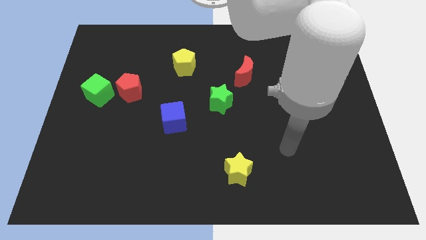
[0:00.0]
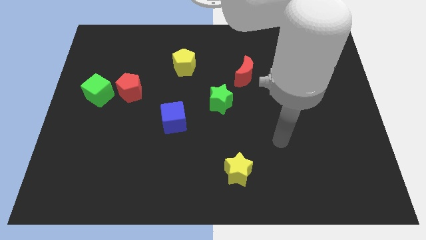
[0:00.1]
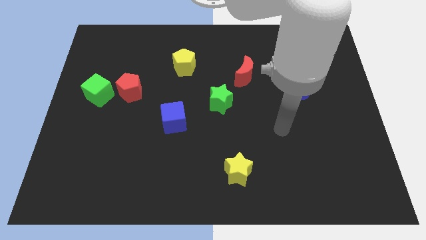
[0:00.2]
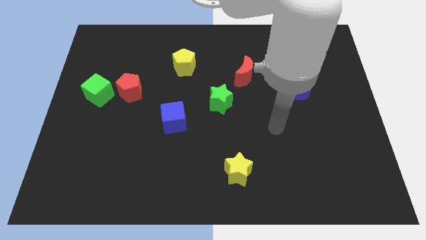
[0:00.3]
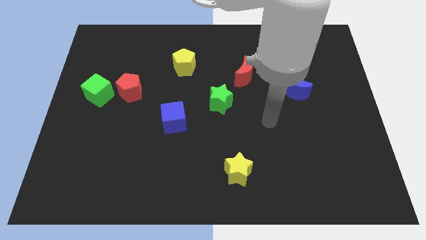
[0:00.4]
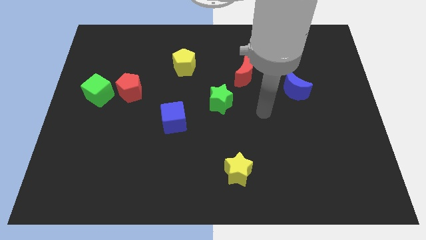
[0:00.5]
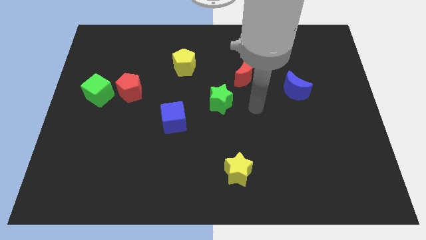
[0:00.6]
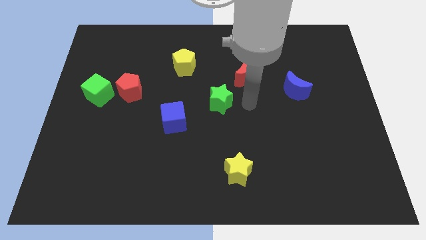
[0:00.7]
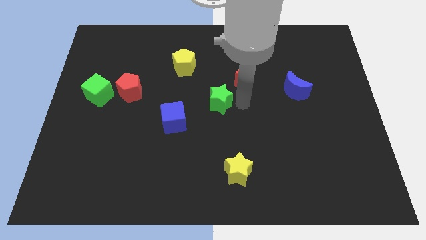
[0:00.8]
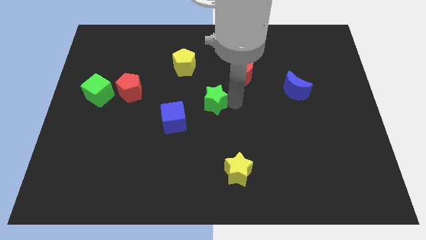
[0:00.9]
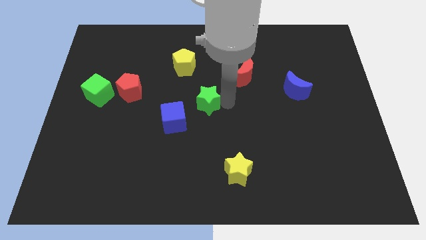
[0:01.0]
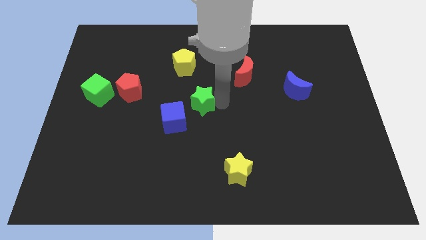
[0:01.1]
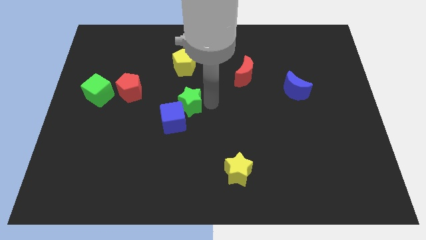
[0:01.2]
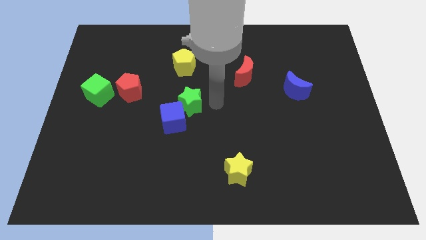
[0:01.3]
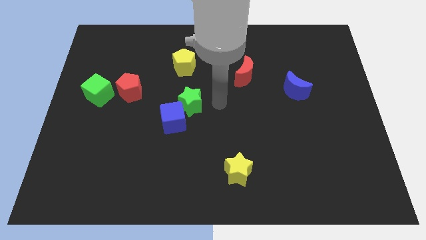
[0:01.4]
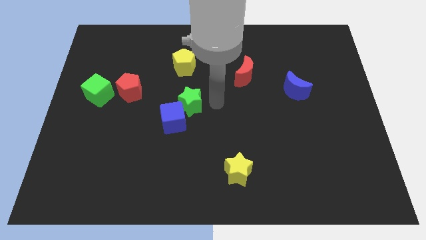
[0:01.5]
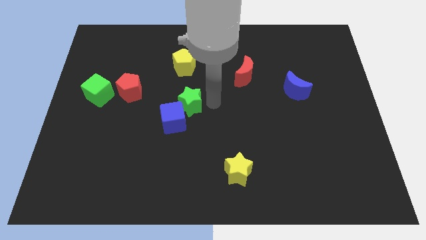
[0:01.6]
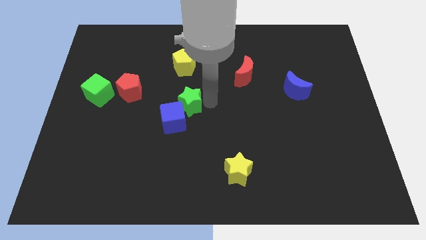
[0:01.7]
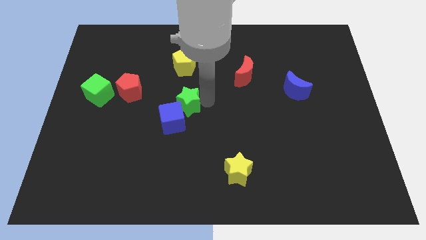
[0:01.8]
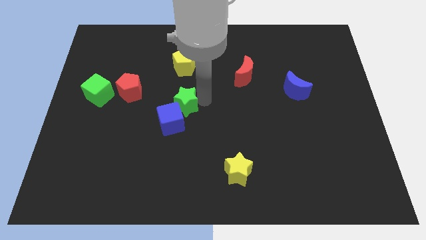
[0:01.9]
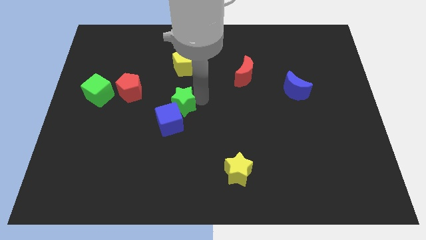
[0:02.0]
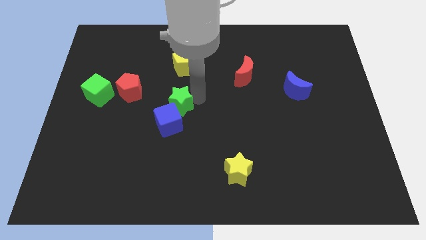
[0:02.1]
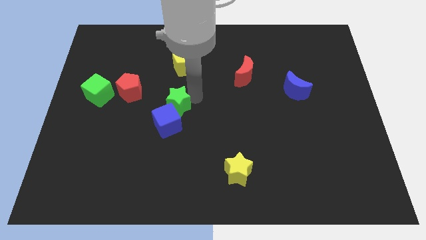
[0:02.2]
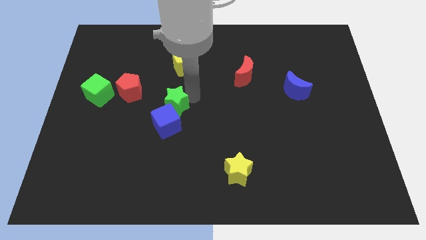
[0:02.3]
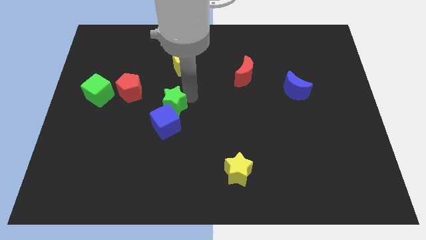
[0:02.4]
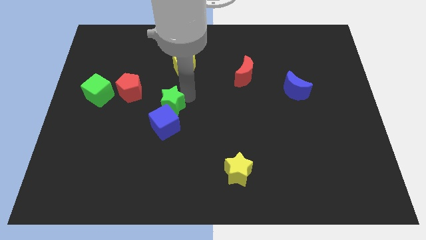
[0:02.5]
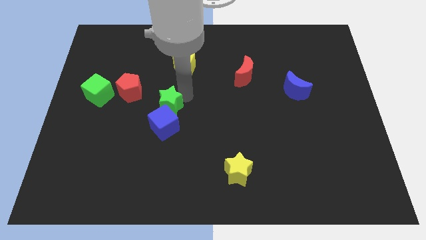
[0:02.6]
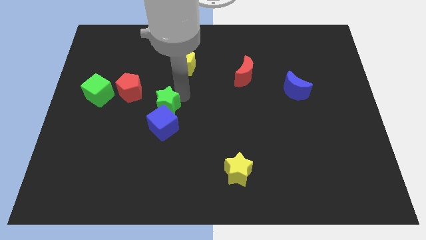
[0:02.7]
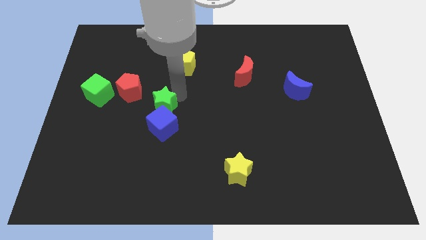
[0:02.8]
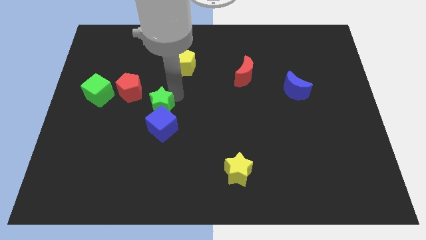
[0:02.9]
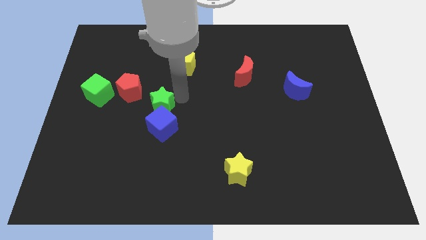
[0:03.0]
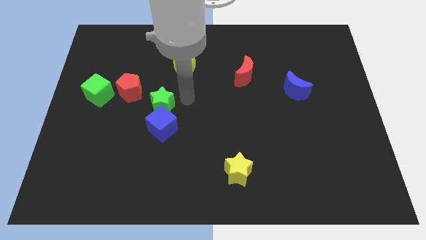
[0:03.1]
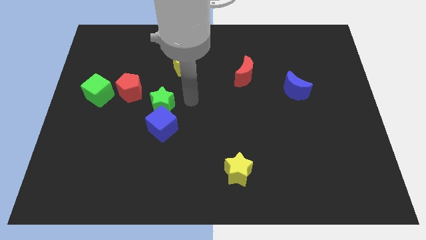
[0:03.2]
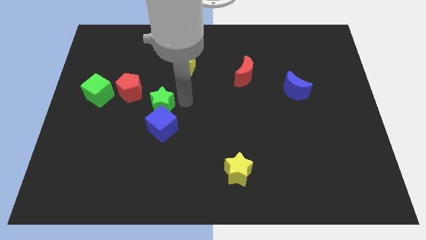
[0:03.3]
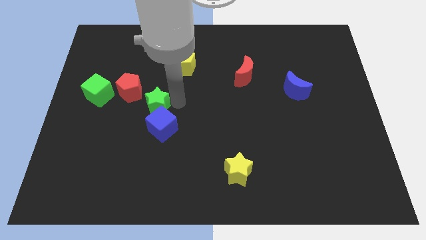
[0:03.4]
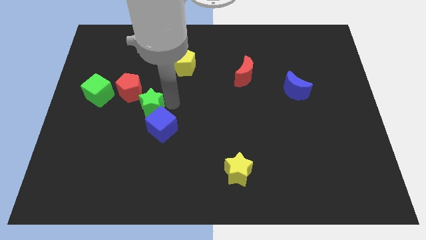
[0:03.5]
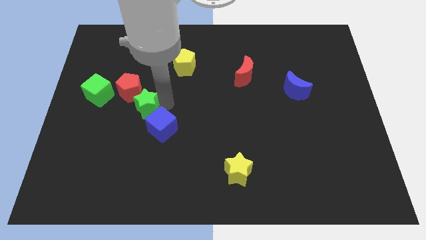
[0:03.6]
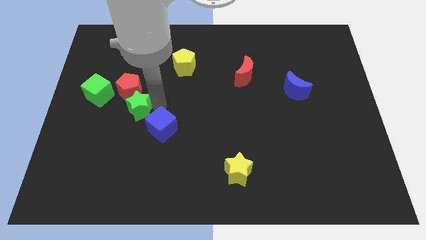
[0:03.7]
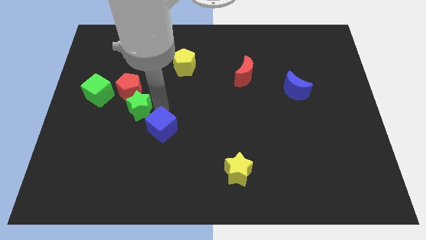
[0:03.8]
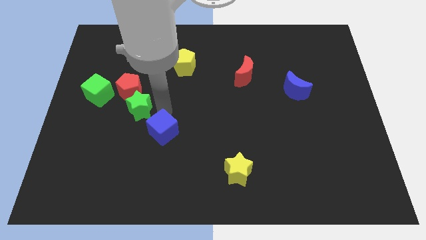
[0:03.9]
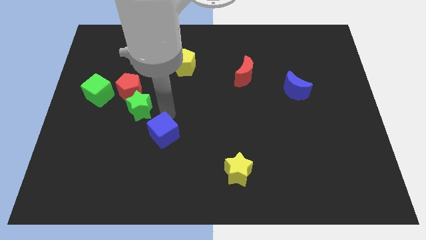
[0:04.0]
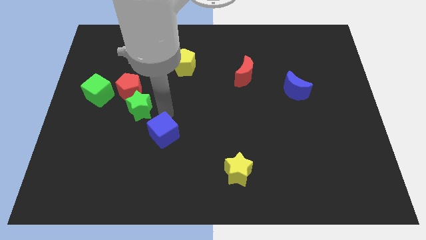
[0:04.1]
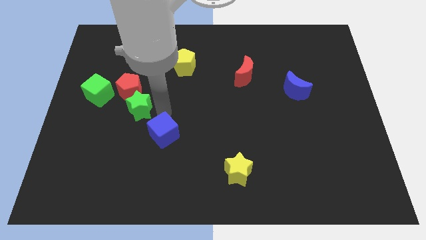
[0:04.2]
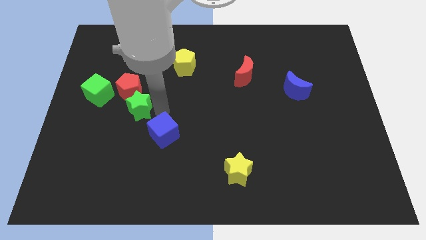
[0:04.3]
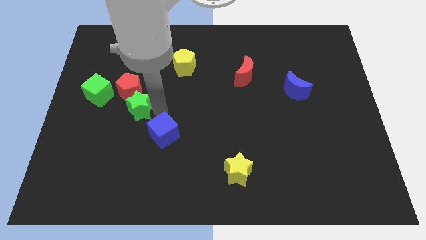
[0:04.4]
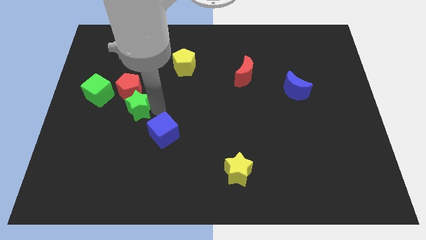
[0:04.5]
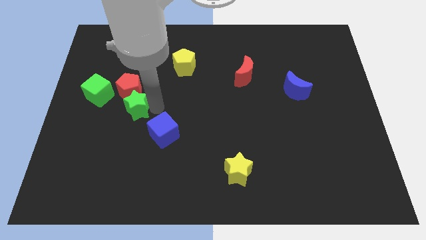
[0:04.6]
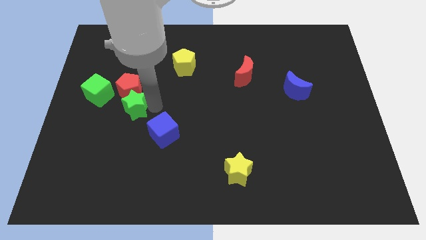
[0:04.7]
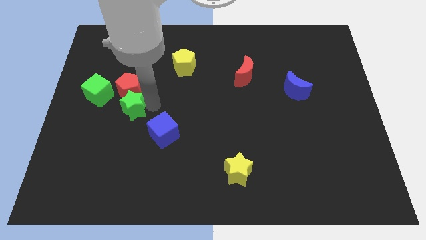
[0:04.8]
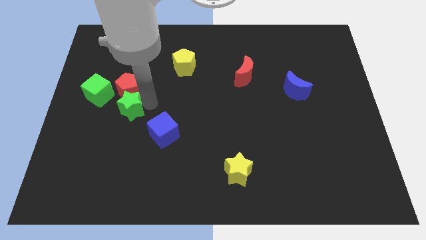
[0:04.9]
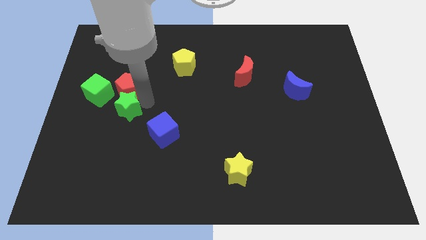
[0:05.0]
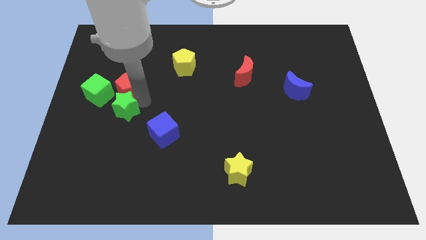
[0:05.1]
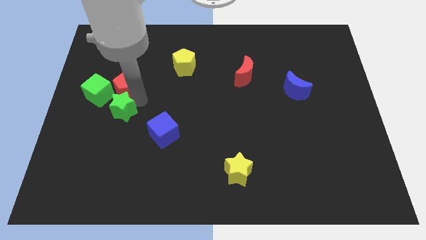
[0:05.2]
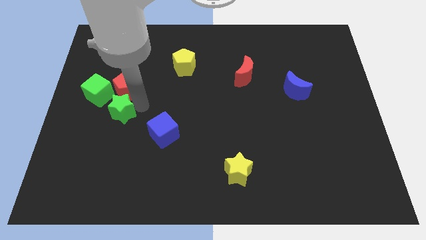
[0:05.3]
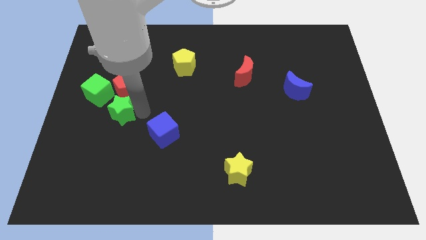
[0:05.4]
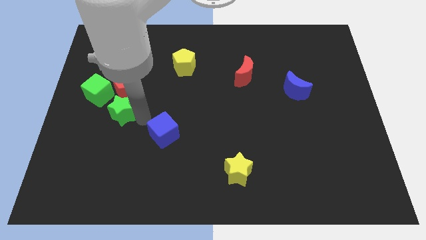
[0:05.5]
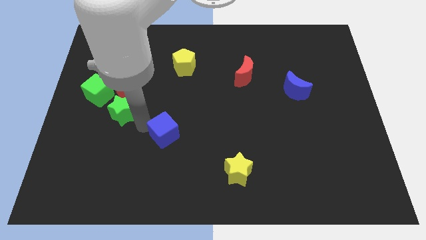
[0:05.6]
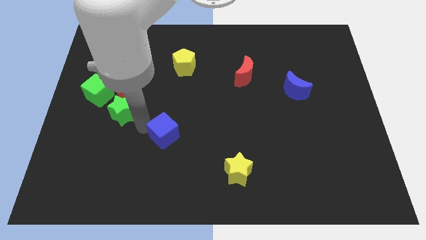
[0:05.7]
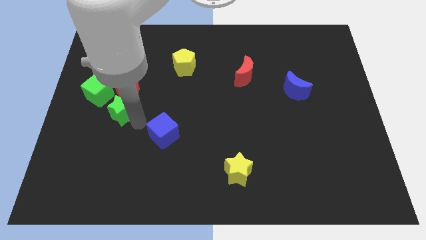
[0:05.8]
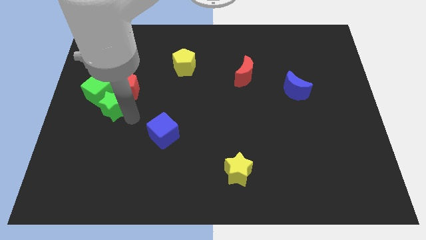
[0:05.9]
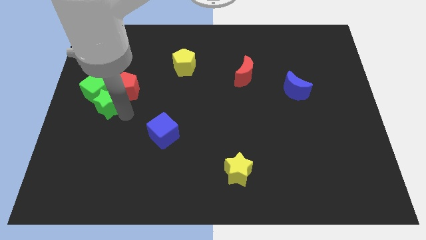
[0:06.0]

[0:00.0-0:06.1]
put the green star to the green cube

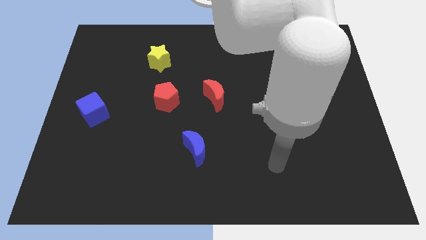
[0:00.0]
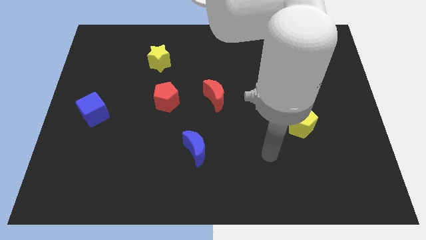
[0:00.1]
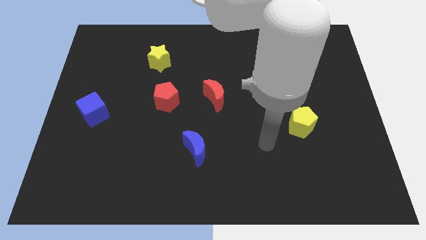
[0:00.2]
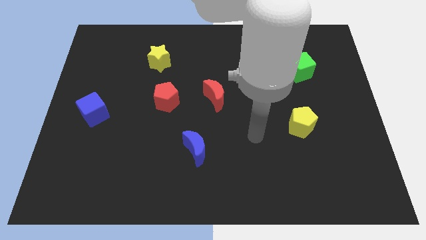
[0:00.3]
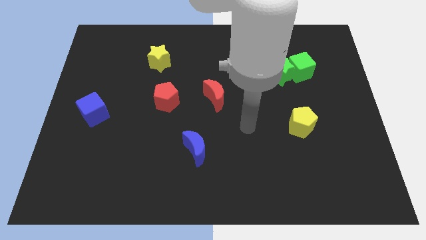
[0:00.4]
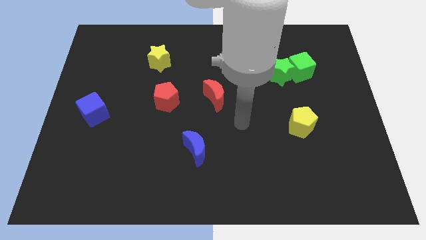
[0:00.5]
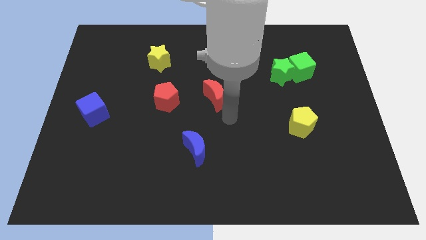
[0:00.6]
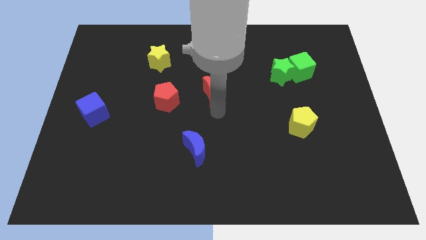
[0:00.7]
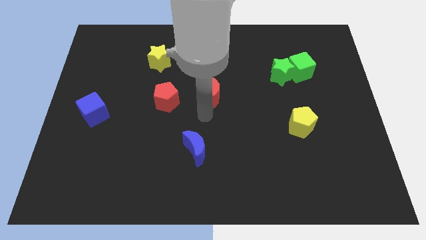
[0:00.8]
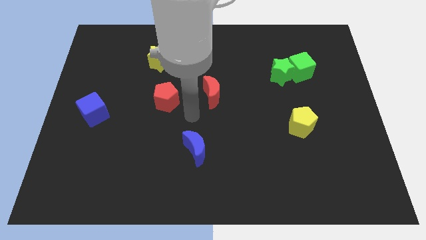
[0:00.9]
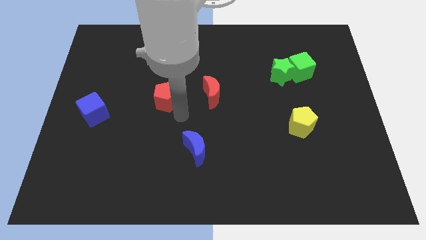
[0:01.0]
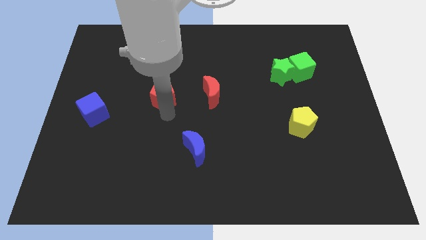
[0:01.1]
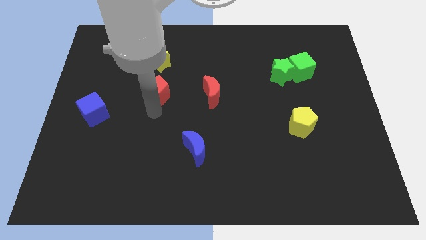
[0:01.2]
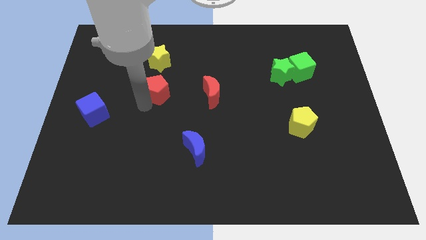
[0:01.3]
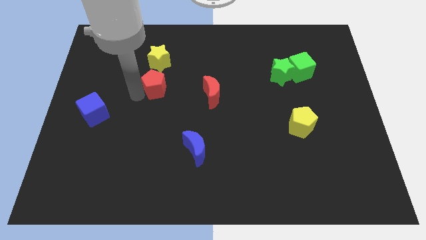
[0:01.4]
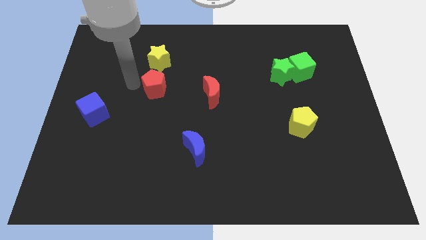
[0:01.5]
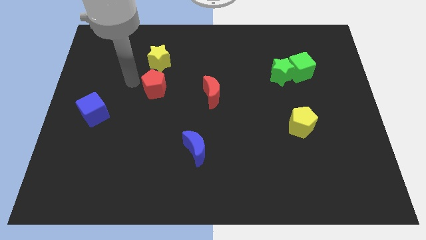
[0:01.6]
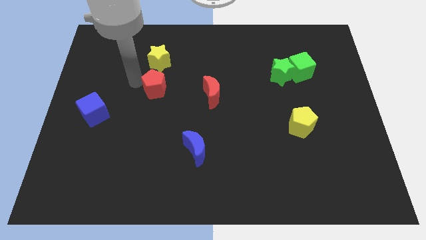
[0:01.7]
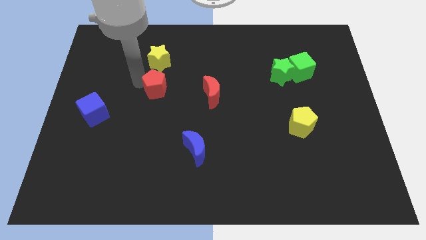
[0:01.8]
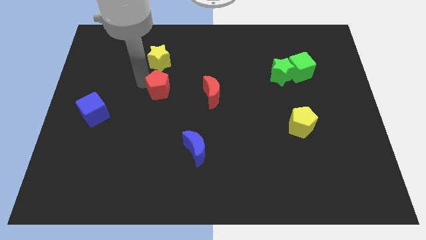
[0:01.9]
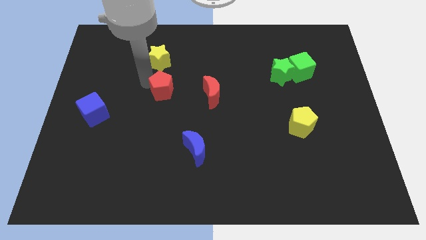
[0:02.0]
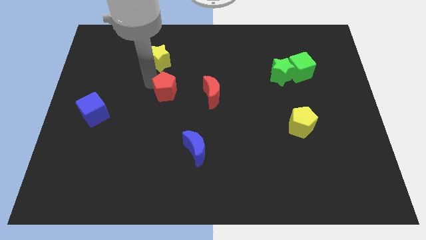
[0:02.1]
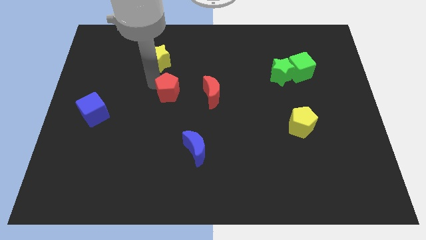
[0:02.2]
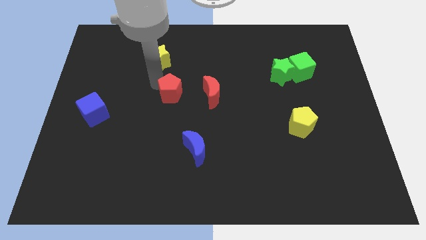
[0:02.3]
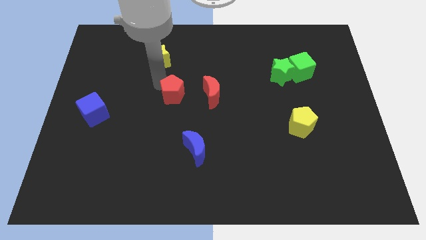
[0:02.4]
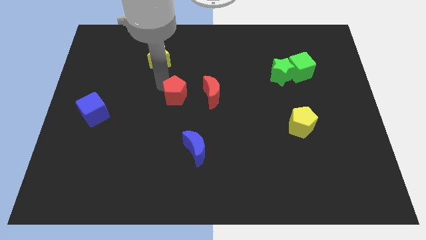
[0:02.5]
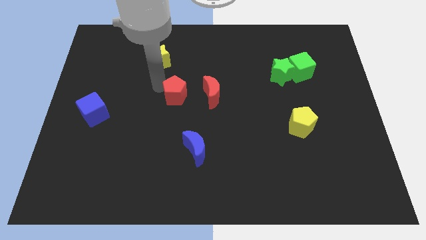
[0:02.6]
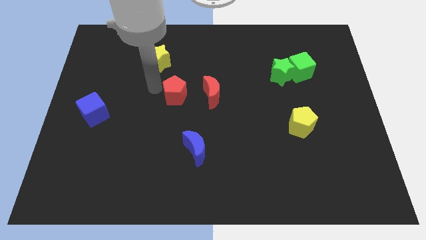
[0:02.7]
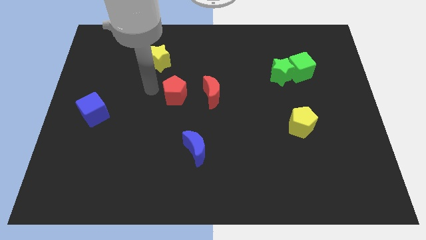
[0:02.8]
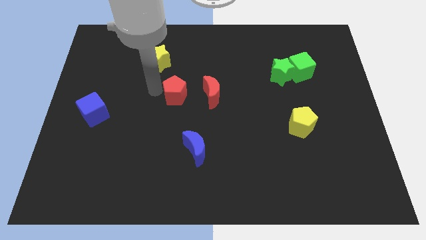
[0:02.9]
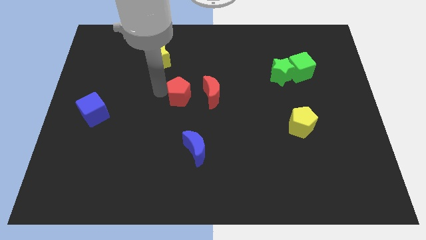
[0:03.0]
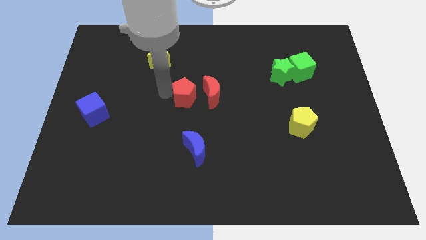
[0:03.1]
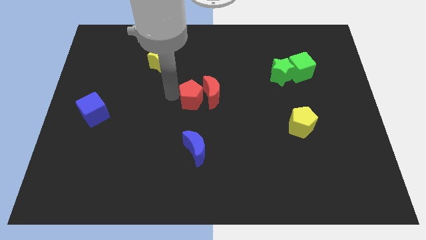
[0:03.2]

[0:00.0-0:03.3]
push the red pentagon towards the red moon
